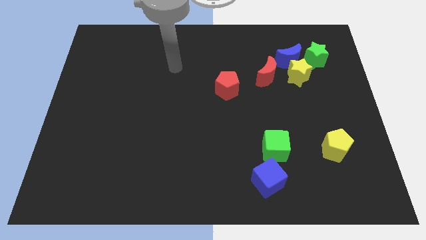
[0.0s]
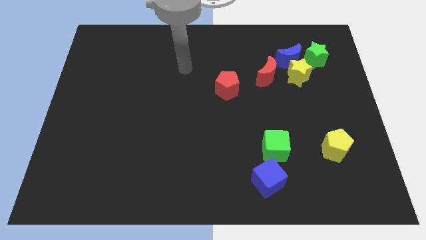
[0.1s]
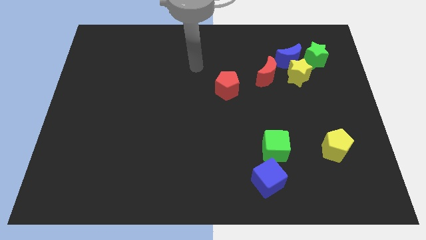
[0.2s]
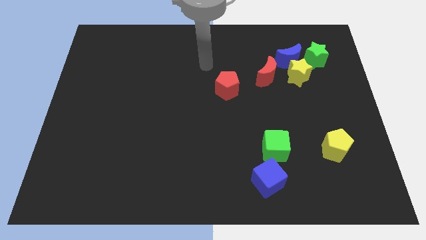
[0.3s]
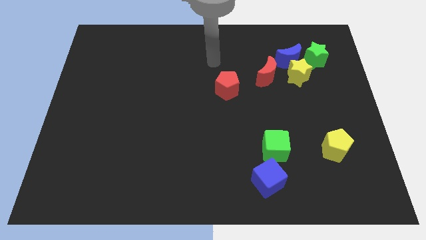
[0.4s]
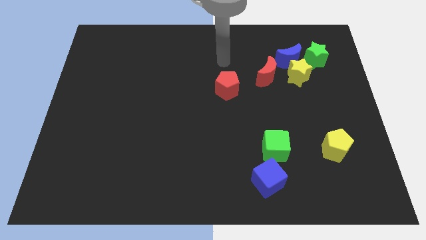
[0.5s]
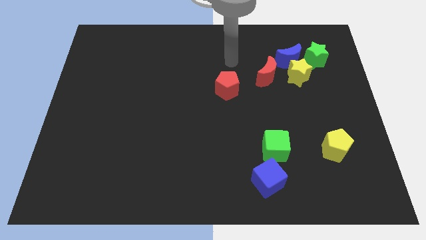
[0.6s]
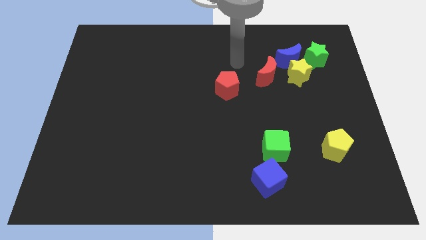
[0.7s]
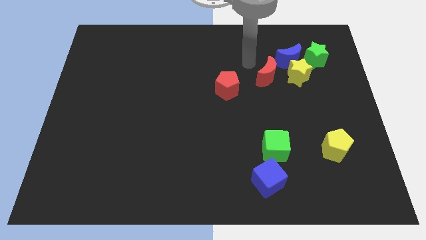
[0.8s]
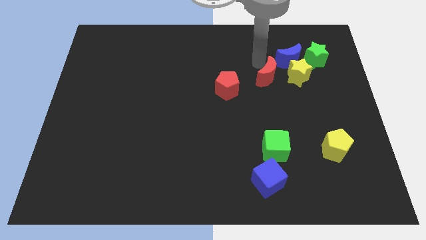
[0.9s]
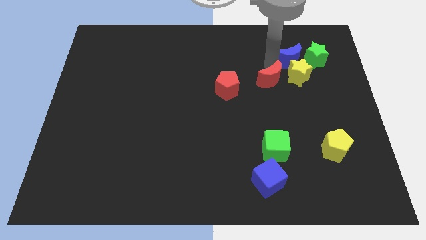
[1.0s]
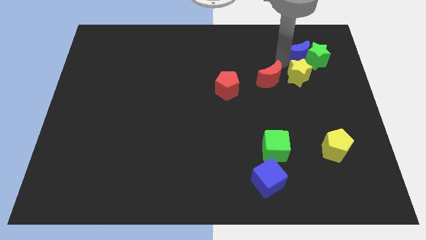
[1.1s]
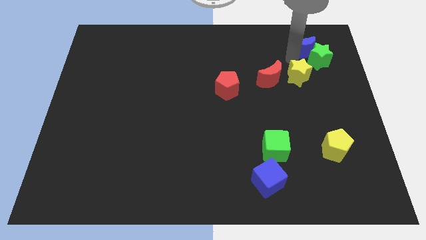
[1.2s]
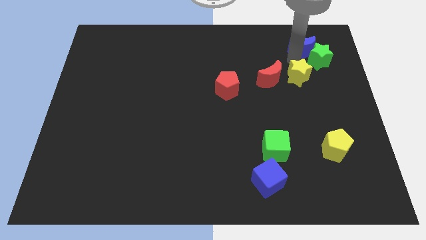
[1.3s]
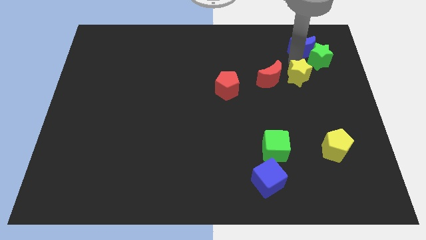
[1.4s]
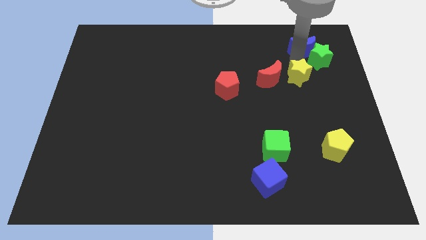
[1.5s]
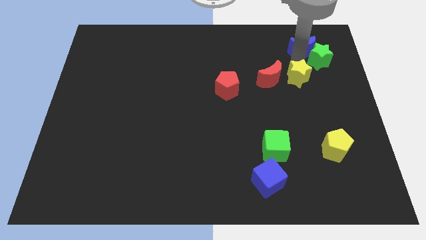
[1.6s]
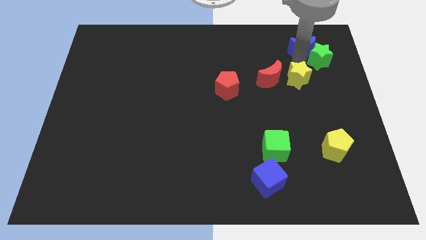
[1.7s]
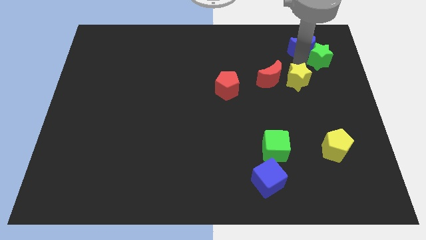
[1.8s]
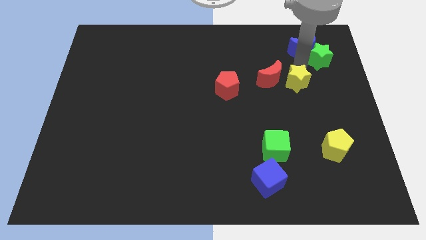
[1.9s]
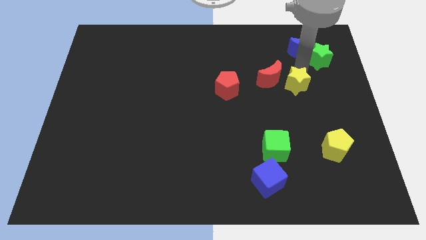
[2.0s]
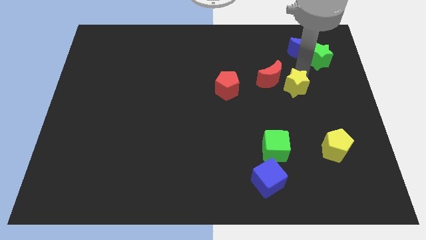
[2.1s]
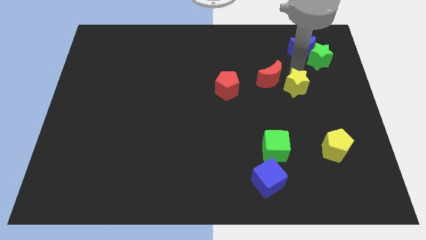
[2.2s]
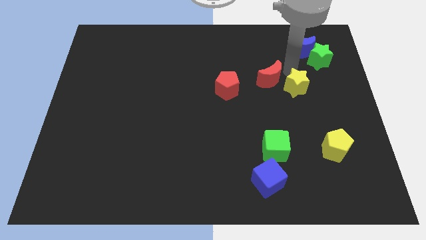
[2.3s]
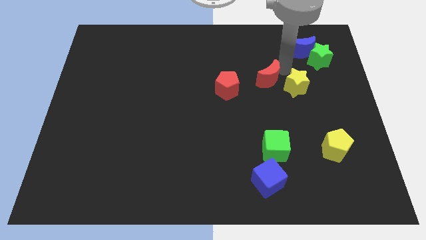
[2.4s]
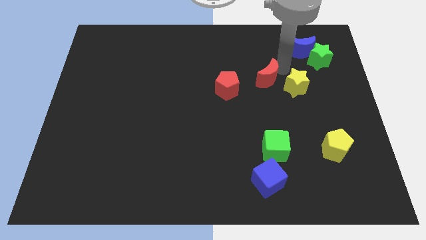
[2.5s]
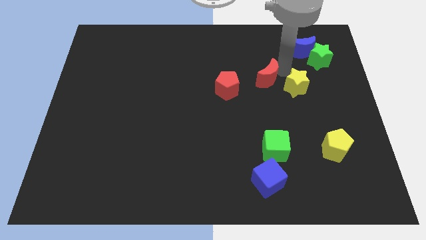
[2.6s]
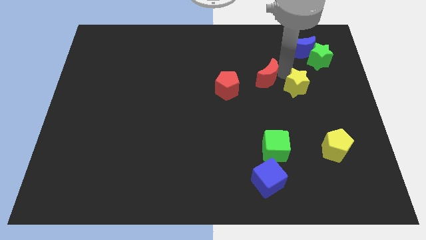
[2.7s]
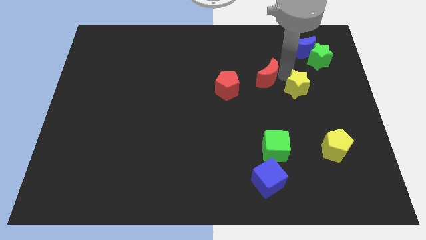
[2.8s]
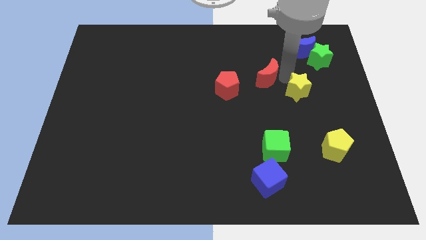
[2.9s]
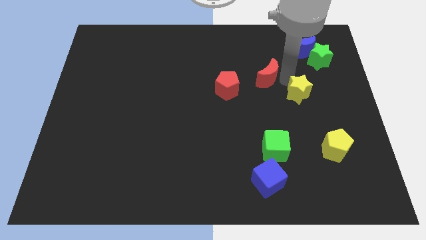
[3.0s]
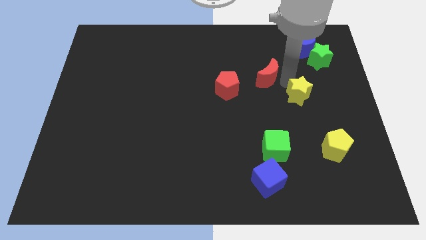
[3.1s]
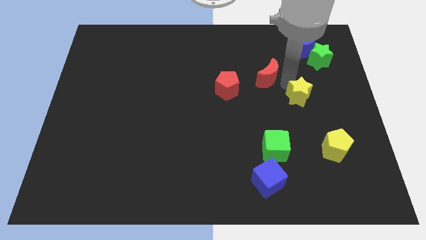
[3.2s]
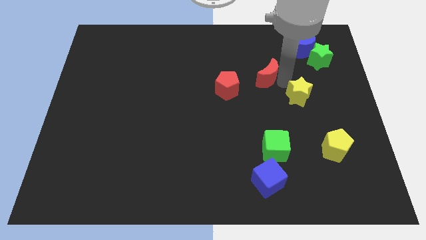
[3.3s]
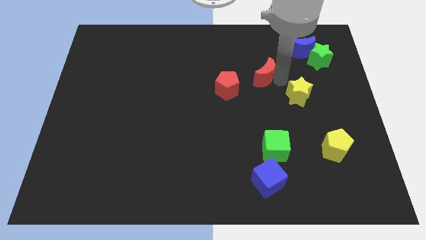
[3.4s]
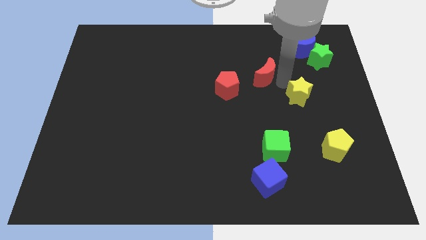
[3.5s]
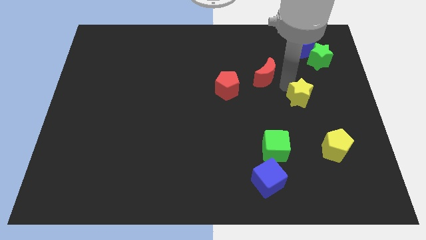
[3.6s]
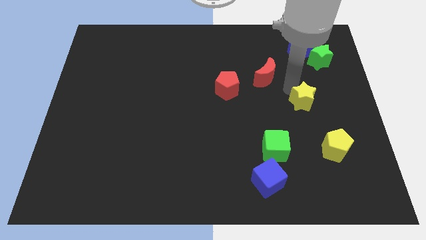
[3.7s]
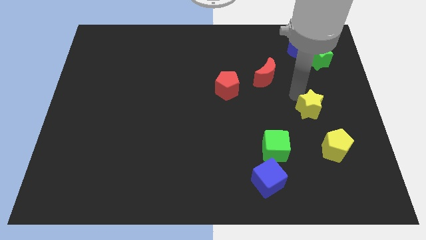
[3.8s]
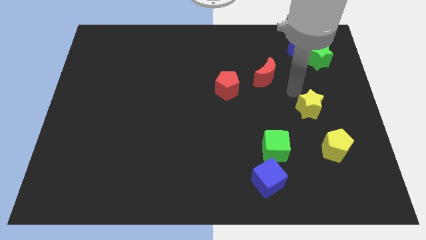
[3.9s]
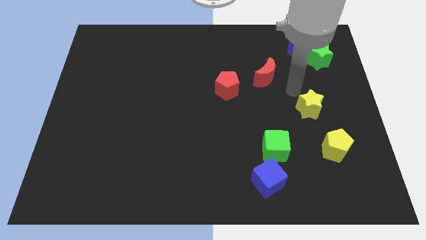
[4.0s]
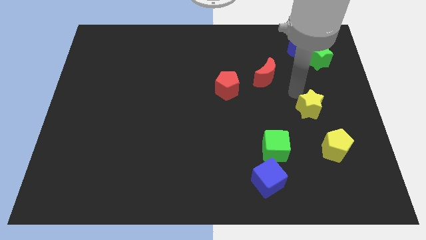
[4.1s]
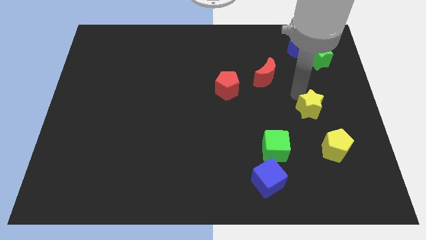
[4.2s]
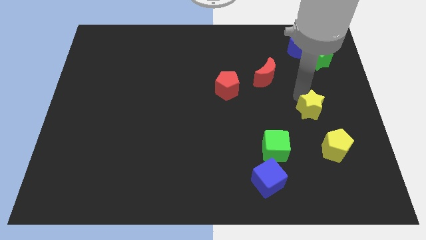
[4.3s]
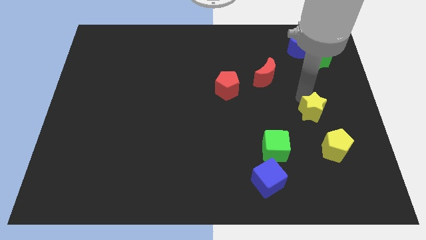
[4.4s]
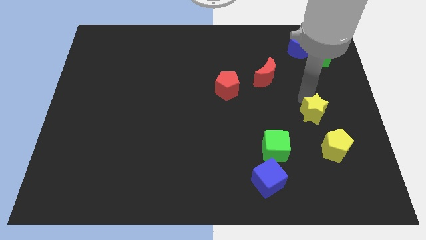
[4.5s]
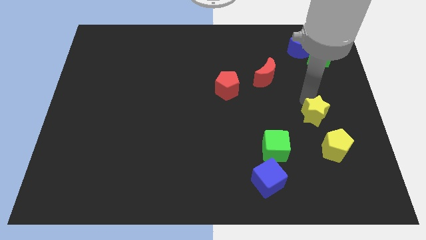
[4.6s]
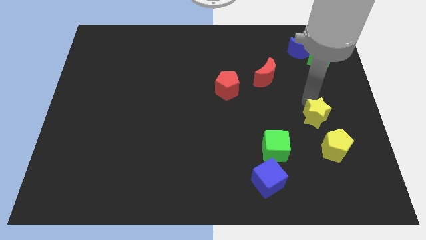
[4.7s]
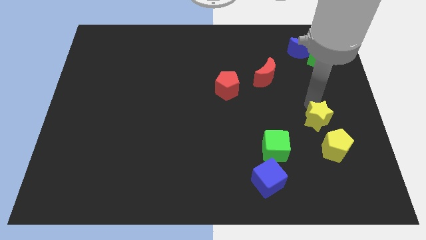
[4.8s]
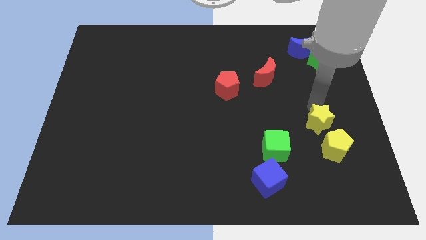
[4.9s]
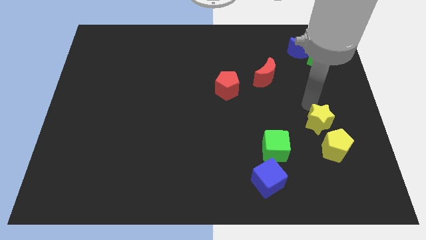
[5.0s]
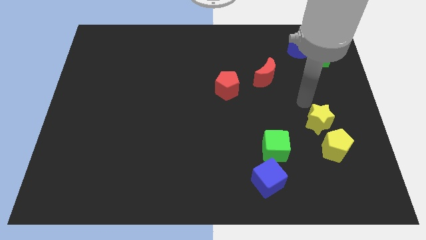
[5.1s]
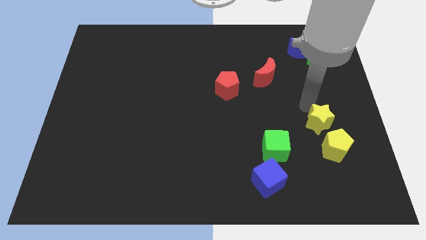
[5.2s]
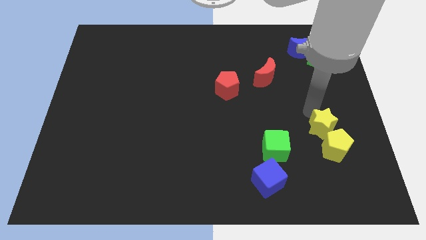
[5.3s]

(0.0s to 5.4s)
put the yellow star next to the yellow pentagon

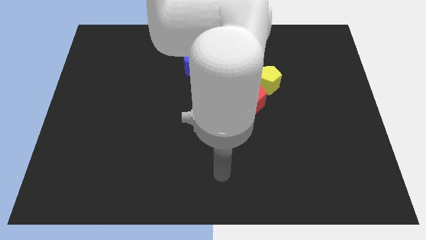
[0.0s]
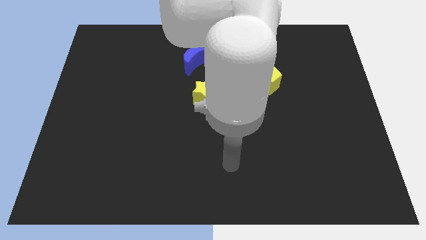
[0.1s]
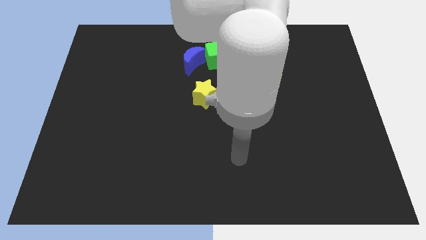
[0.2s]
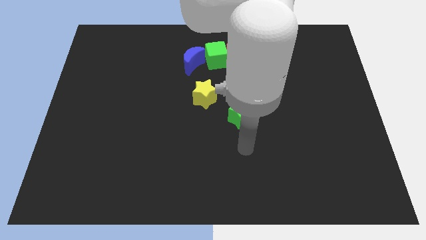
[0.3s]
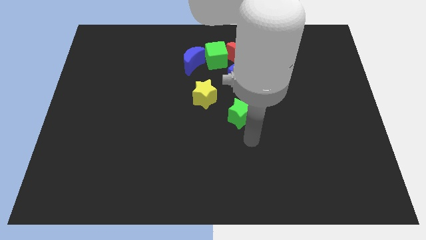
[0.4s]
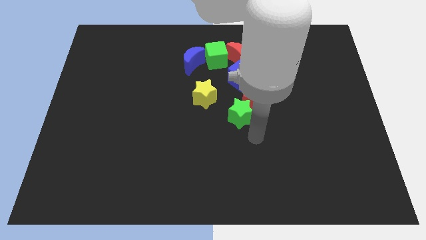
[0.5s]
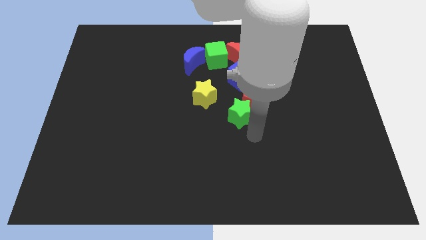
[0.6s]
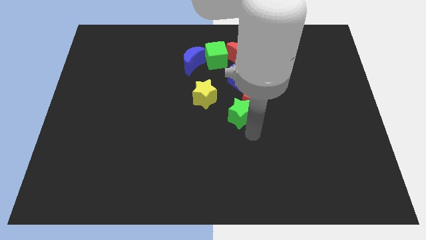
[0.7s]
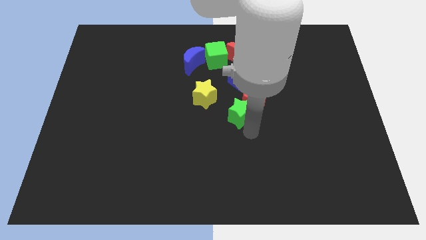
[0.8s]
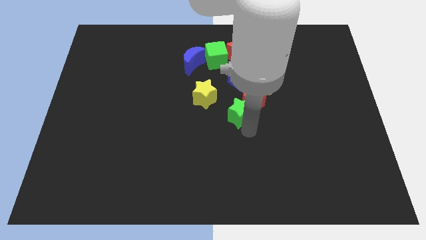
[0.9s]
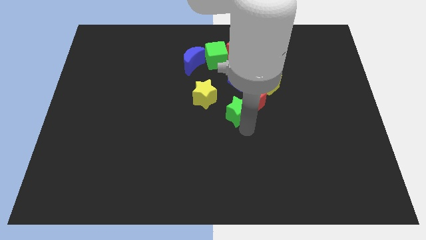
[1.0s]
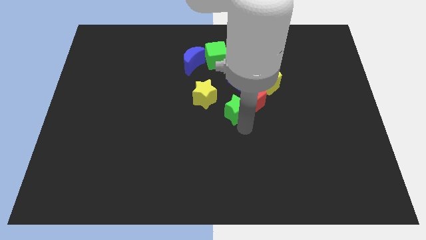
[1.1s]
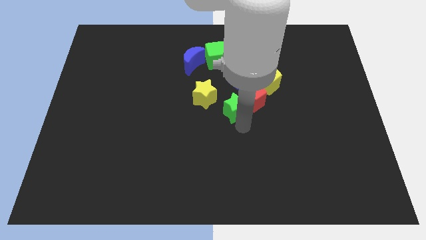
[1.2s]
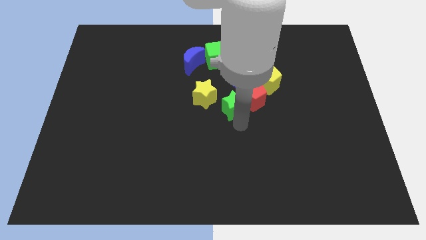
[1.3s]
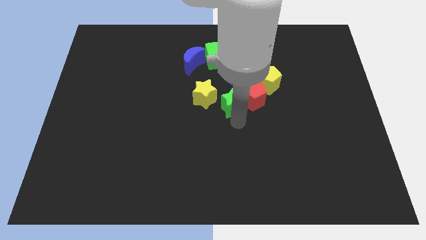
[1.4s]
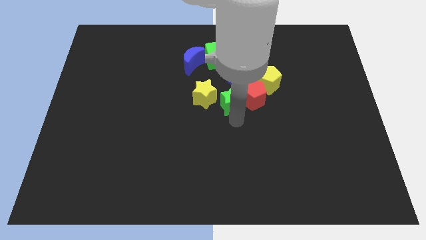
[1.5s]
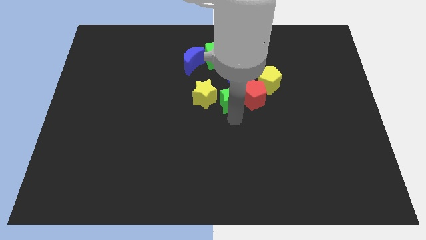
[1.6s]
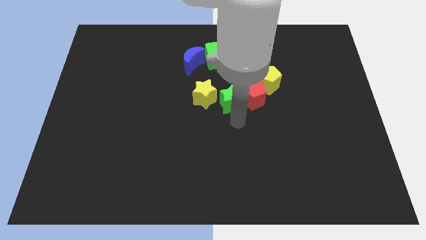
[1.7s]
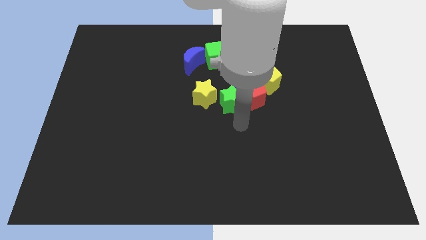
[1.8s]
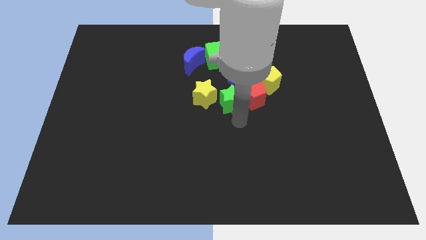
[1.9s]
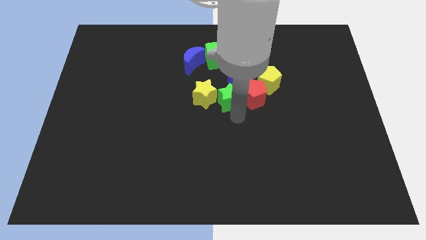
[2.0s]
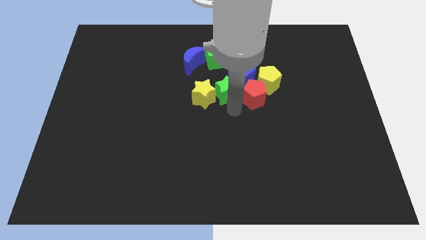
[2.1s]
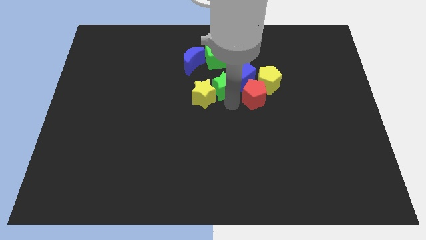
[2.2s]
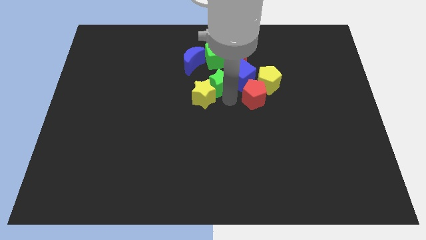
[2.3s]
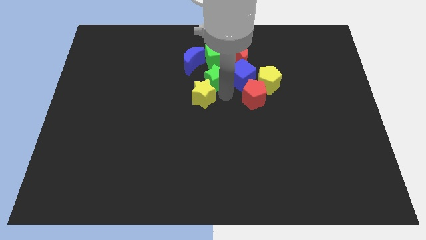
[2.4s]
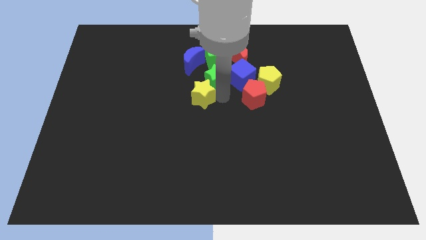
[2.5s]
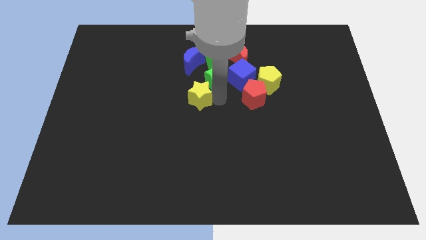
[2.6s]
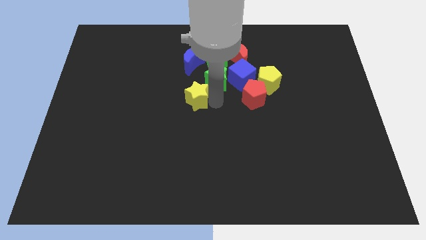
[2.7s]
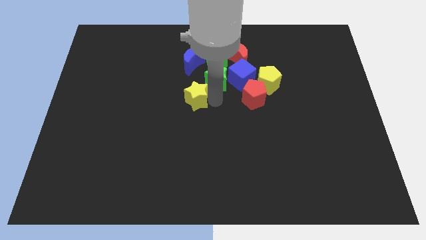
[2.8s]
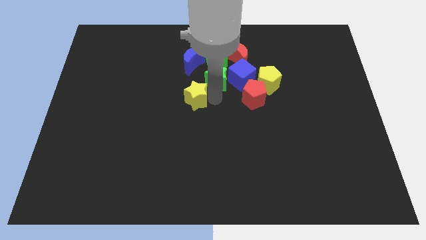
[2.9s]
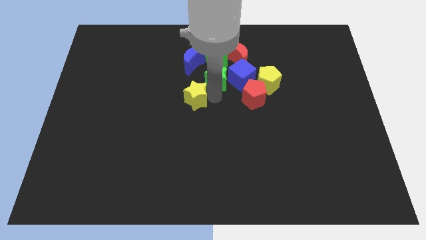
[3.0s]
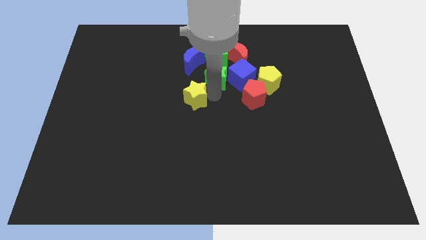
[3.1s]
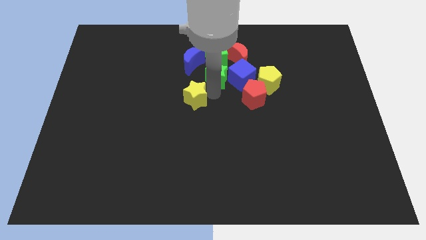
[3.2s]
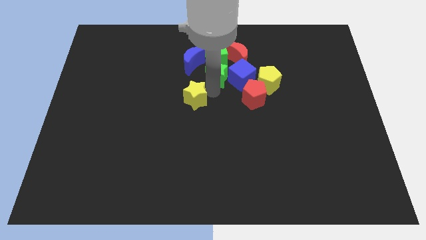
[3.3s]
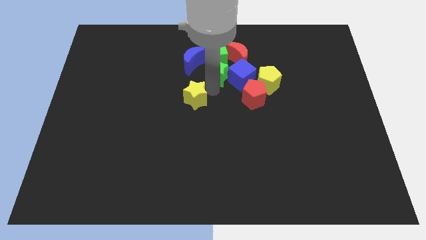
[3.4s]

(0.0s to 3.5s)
put the green star next to the green cube
